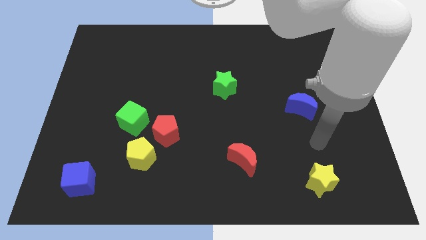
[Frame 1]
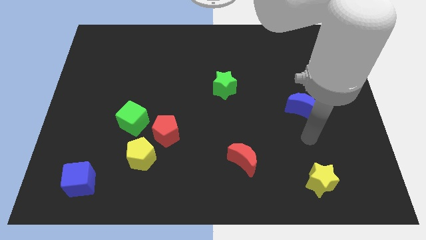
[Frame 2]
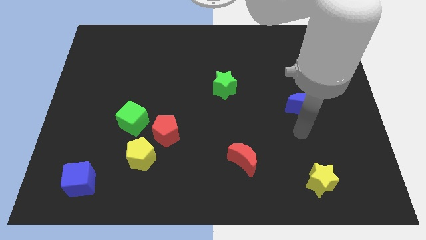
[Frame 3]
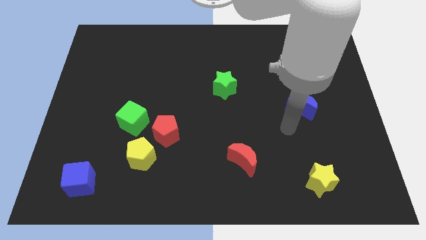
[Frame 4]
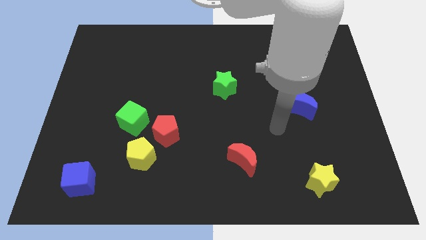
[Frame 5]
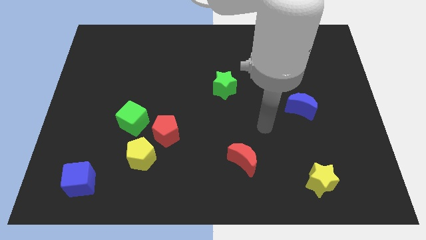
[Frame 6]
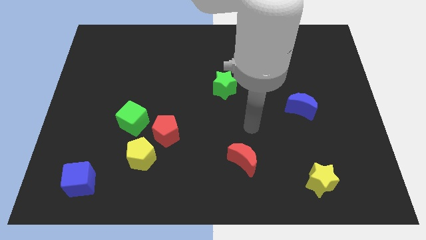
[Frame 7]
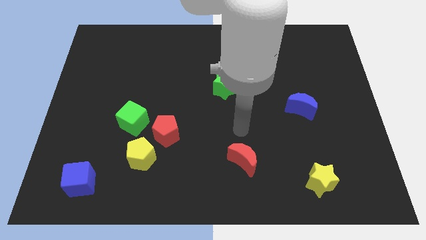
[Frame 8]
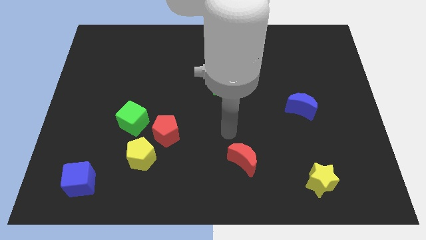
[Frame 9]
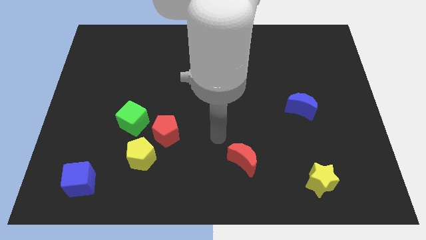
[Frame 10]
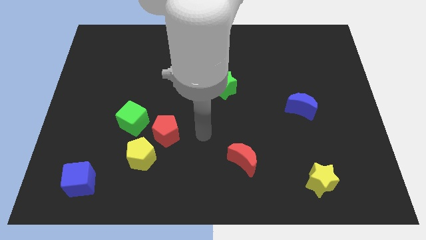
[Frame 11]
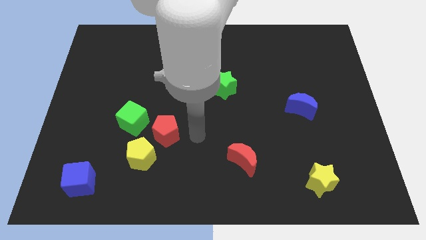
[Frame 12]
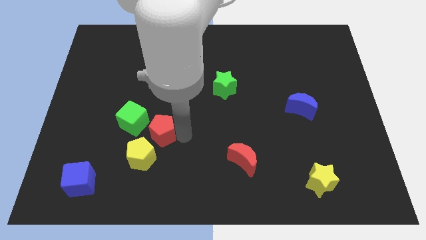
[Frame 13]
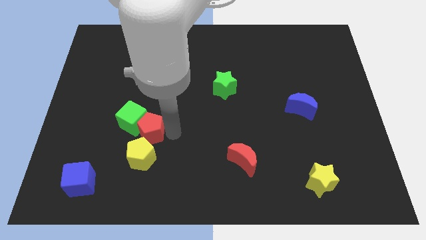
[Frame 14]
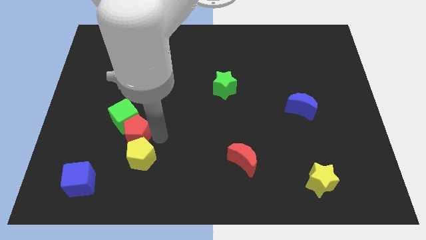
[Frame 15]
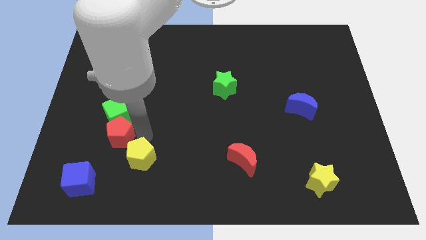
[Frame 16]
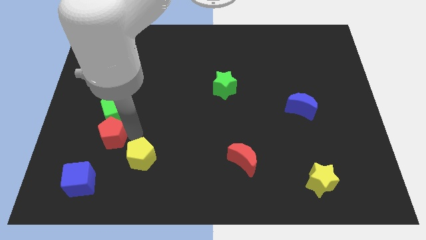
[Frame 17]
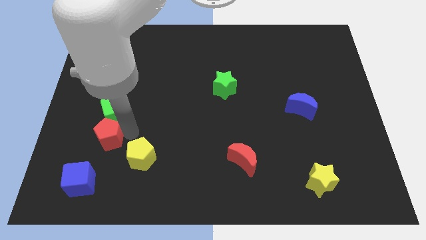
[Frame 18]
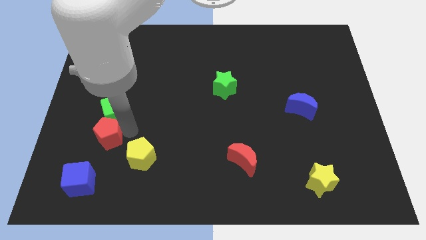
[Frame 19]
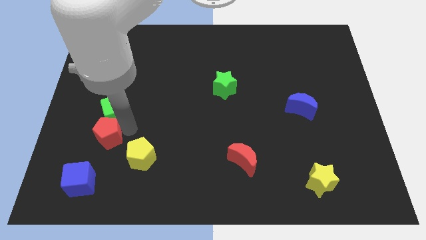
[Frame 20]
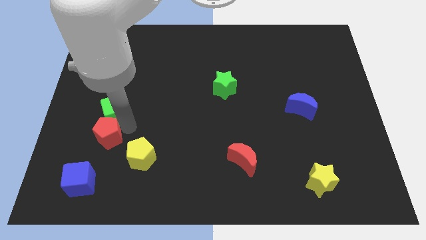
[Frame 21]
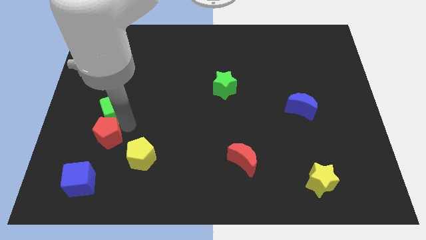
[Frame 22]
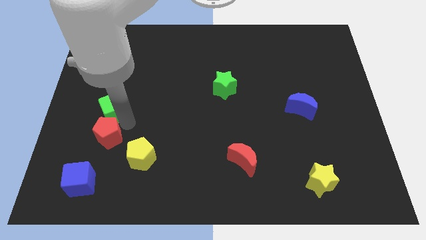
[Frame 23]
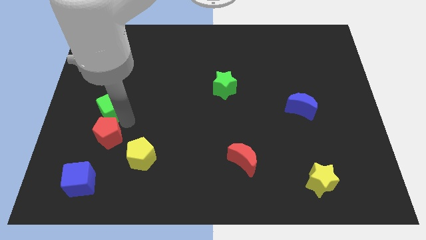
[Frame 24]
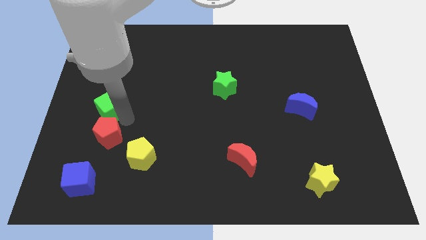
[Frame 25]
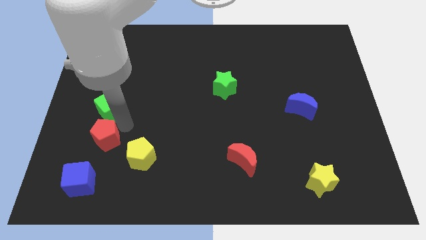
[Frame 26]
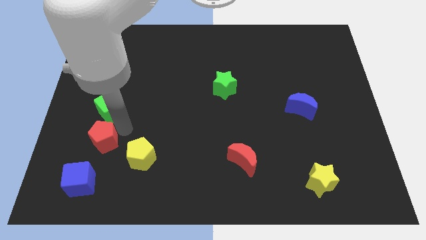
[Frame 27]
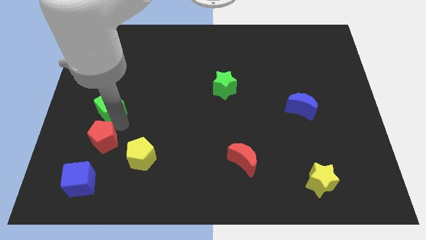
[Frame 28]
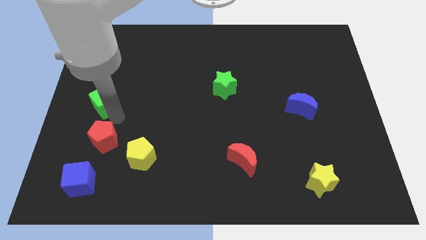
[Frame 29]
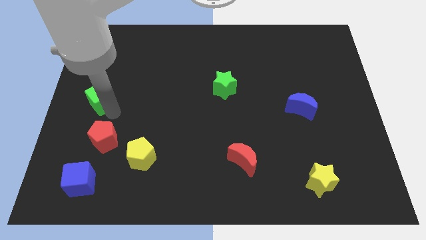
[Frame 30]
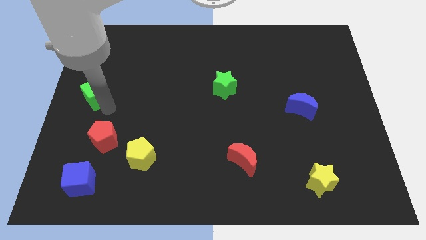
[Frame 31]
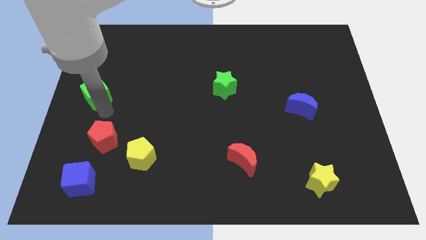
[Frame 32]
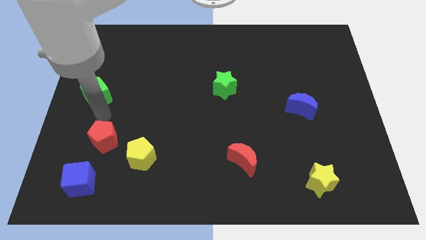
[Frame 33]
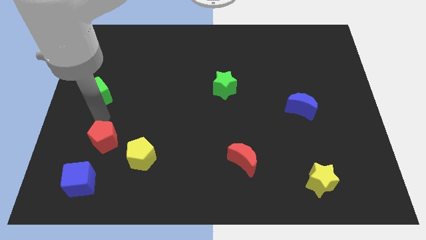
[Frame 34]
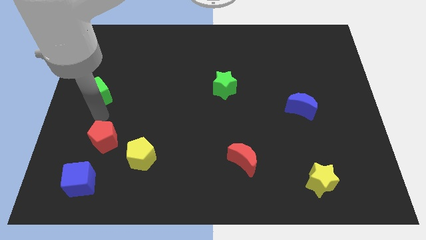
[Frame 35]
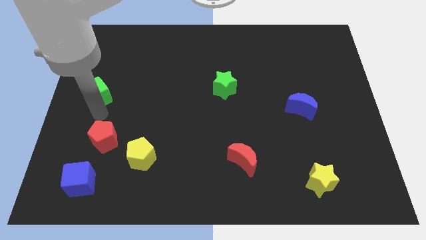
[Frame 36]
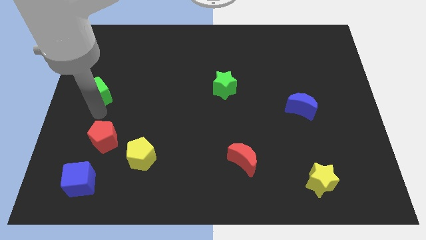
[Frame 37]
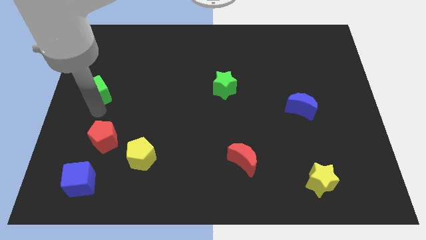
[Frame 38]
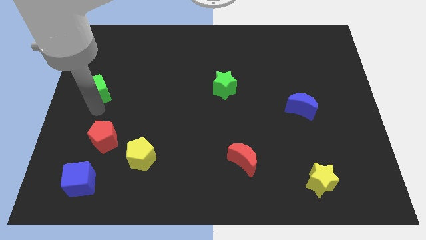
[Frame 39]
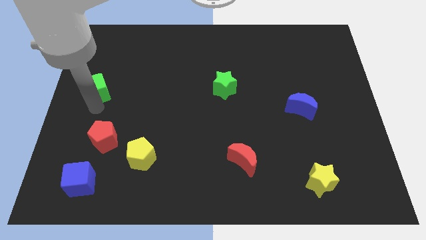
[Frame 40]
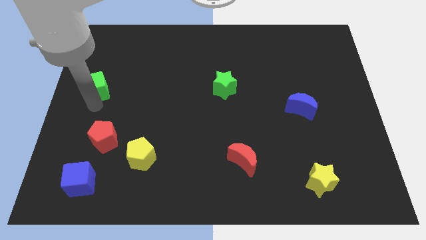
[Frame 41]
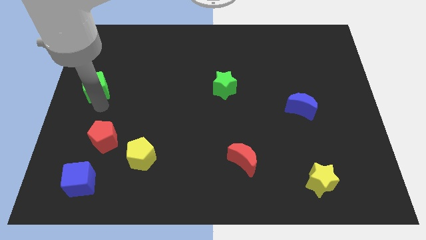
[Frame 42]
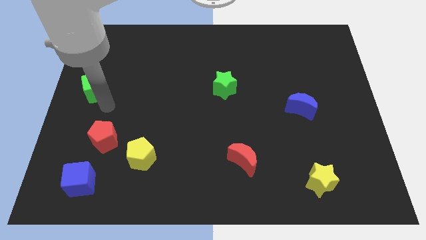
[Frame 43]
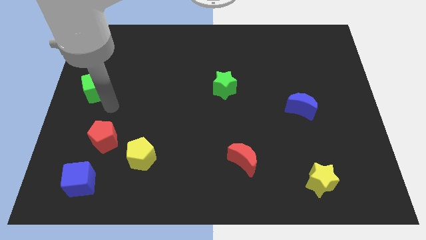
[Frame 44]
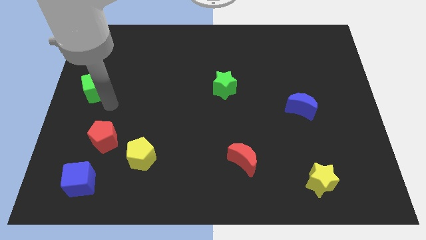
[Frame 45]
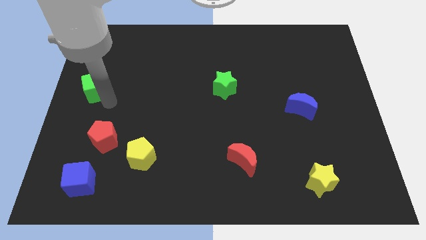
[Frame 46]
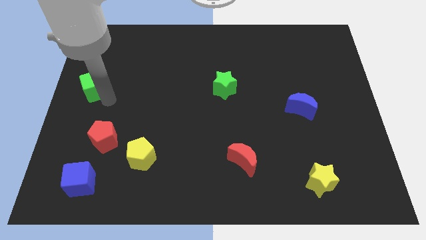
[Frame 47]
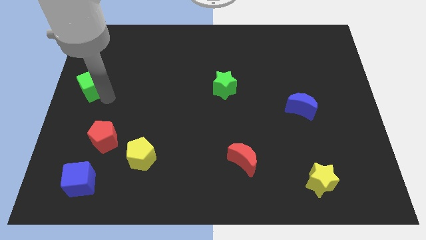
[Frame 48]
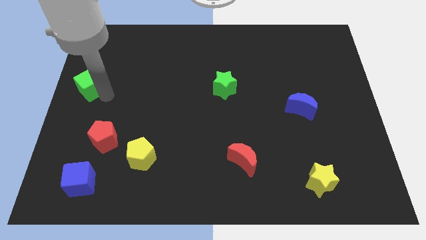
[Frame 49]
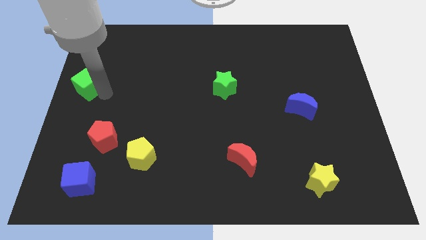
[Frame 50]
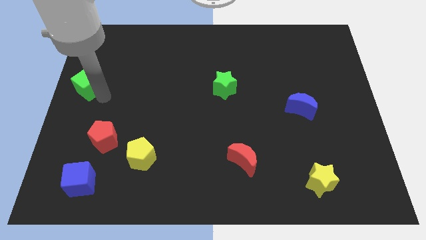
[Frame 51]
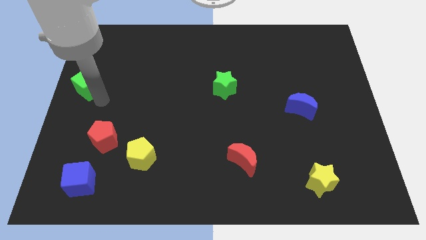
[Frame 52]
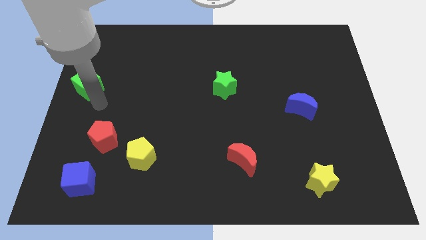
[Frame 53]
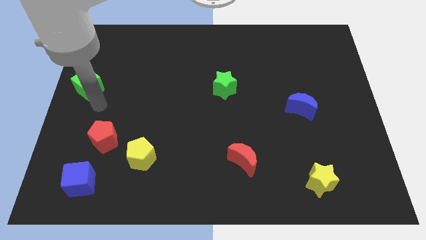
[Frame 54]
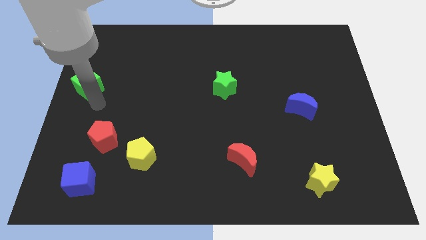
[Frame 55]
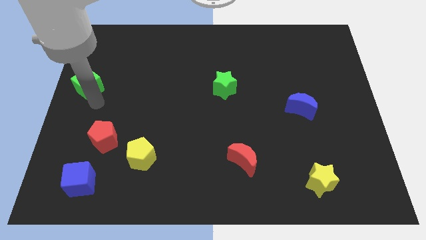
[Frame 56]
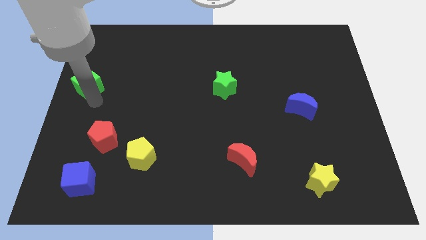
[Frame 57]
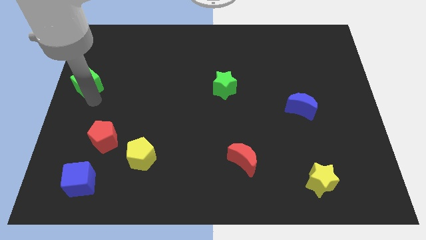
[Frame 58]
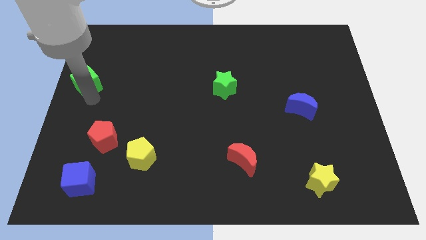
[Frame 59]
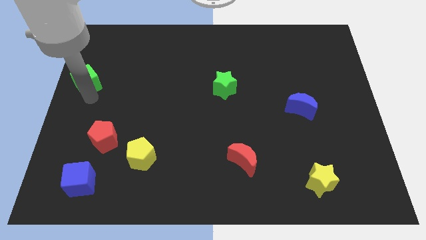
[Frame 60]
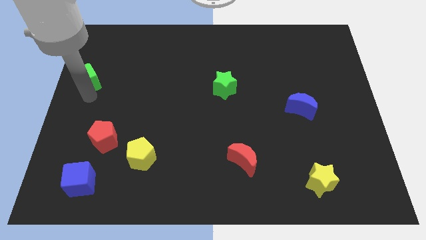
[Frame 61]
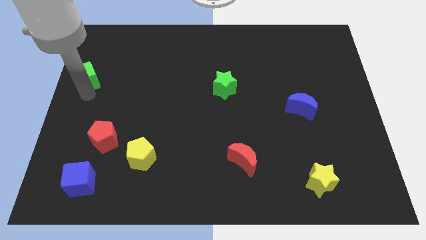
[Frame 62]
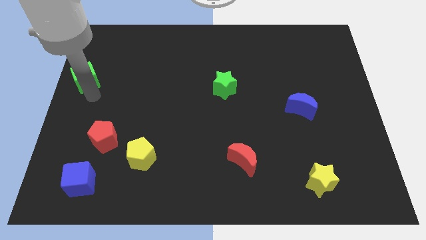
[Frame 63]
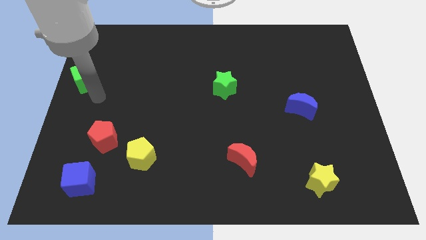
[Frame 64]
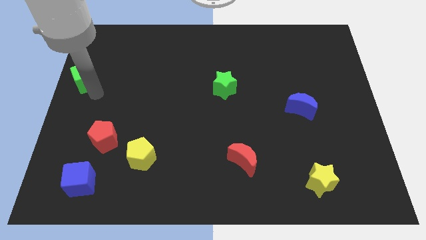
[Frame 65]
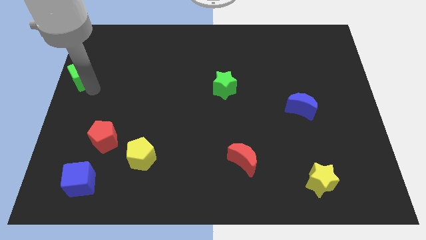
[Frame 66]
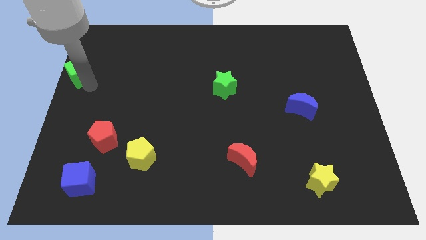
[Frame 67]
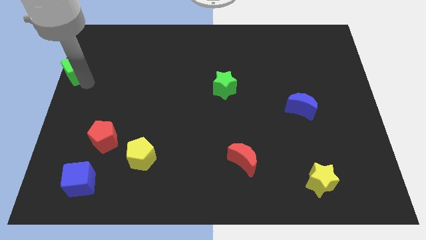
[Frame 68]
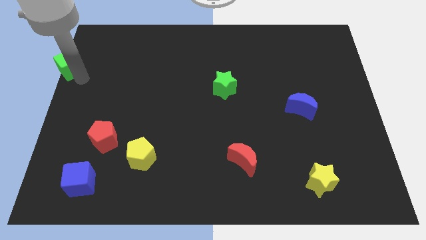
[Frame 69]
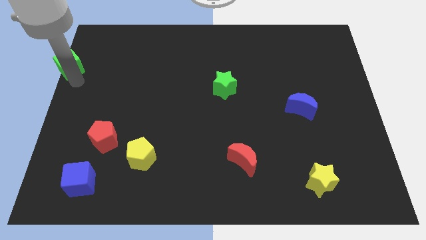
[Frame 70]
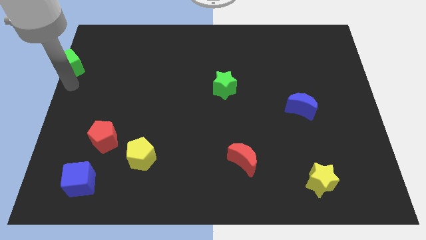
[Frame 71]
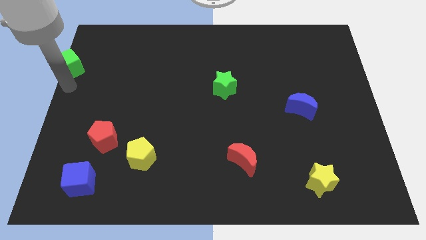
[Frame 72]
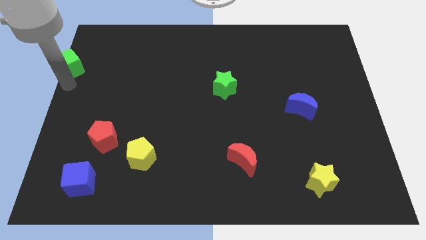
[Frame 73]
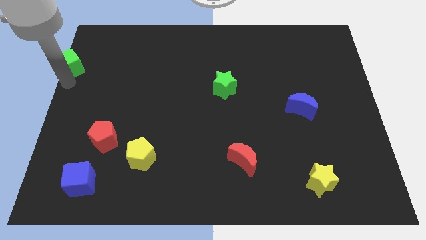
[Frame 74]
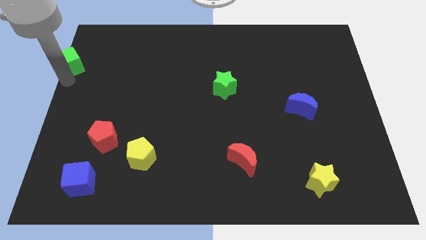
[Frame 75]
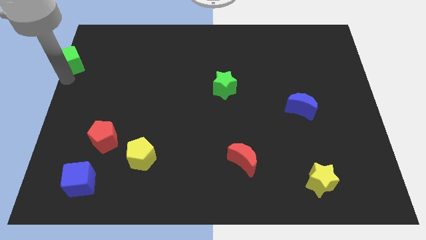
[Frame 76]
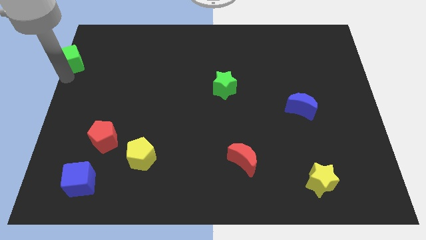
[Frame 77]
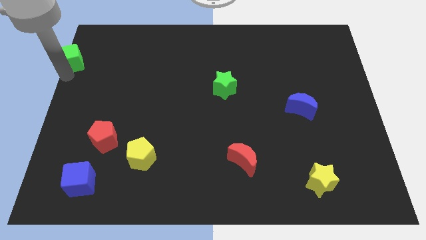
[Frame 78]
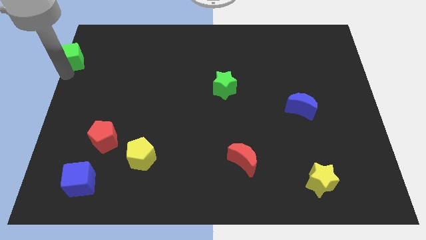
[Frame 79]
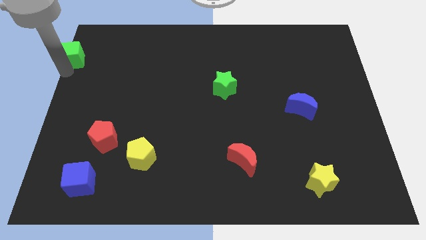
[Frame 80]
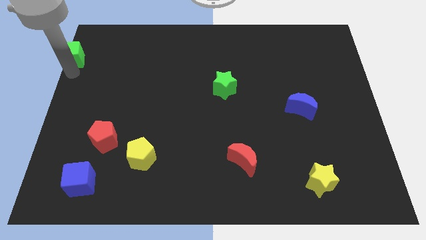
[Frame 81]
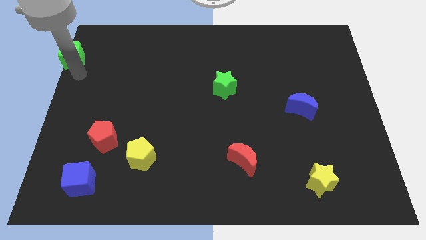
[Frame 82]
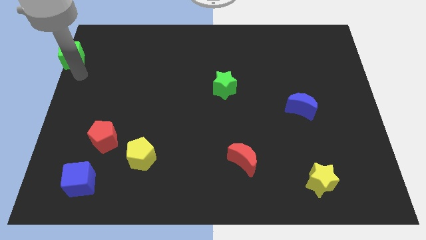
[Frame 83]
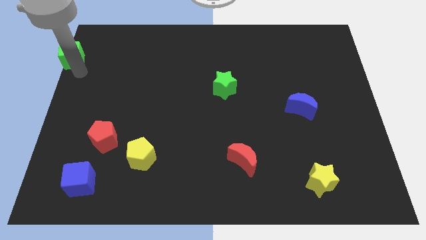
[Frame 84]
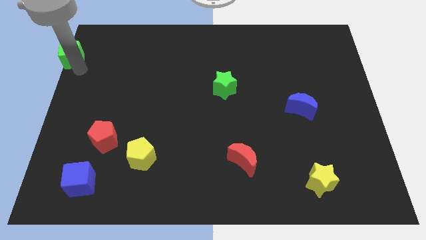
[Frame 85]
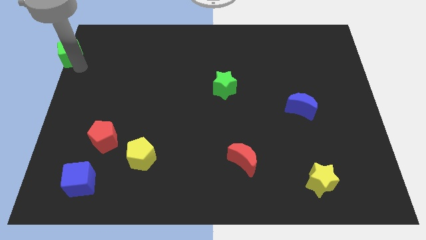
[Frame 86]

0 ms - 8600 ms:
put the green cube to the top left corner
